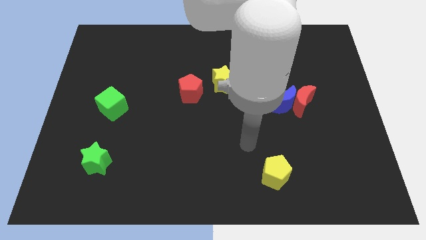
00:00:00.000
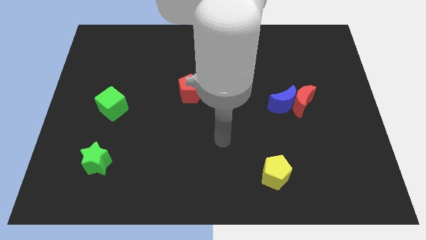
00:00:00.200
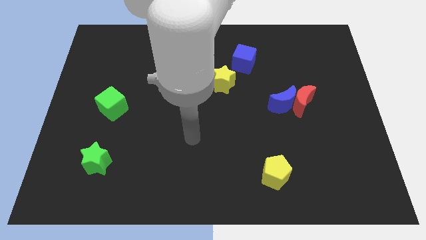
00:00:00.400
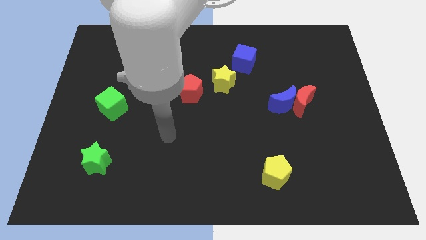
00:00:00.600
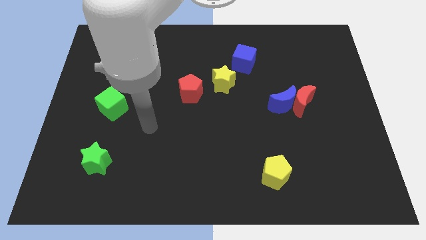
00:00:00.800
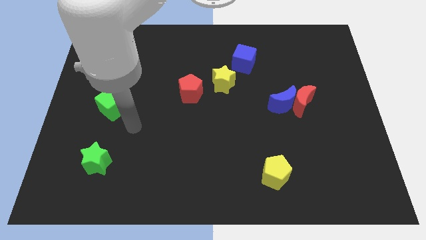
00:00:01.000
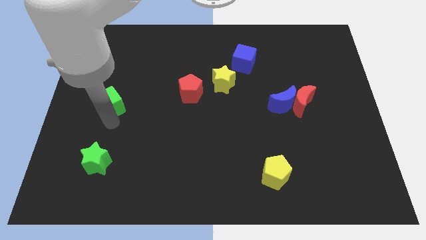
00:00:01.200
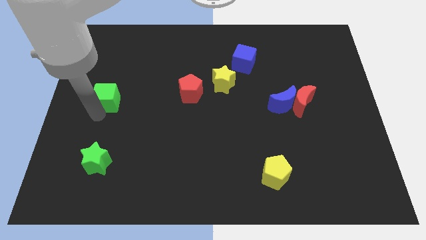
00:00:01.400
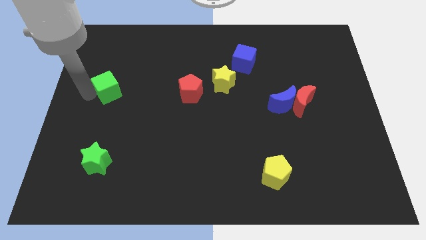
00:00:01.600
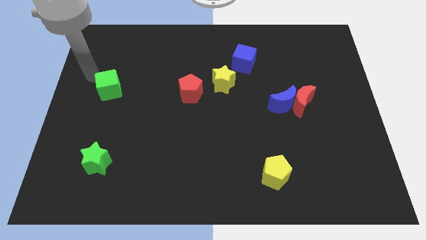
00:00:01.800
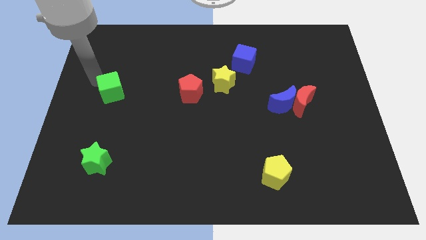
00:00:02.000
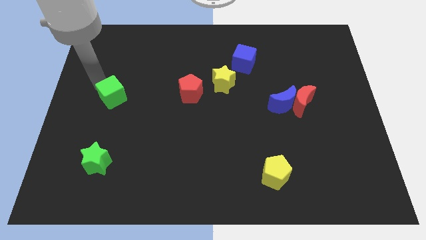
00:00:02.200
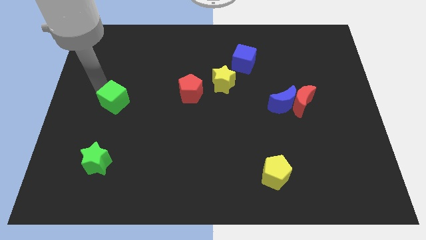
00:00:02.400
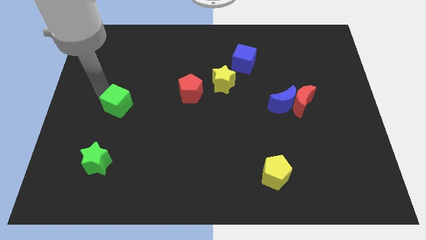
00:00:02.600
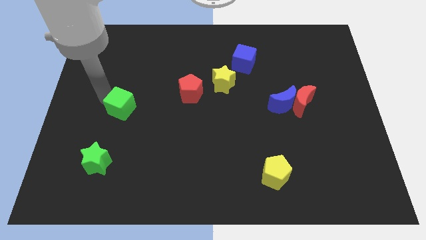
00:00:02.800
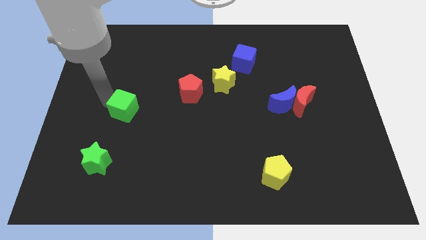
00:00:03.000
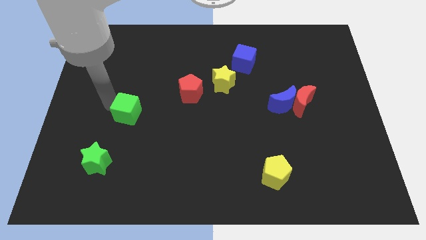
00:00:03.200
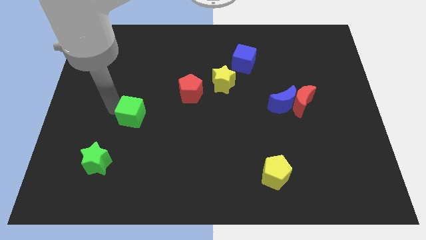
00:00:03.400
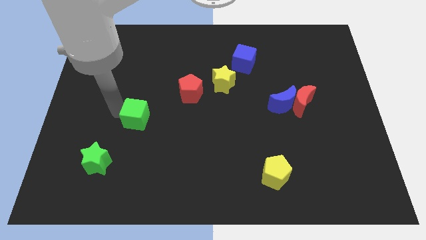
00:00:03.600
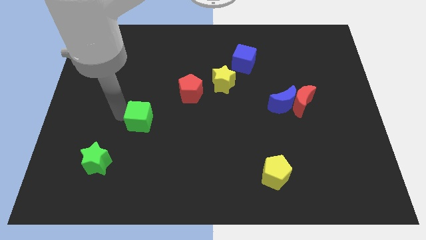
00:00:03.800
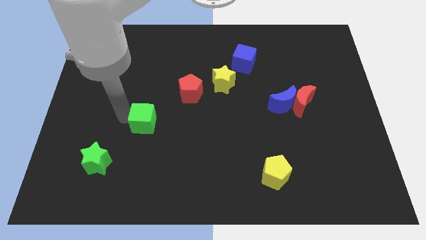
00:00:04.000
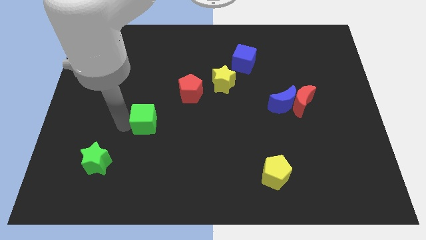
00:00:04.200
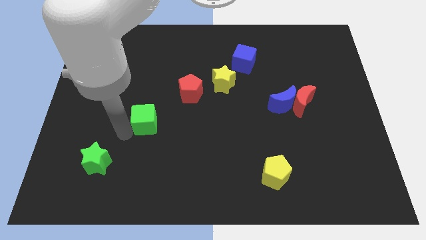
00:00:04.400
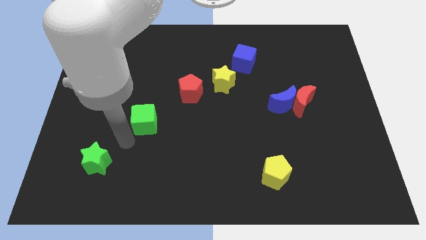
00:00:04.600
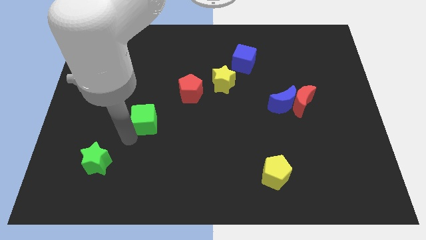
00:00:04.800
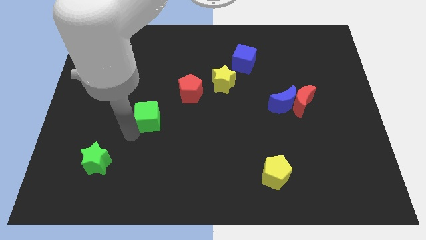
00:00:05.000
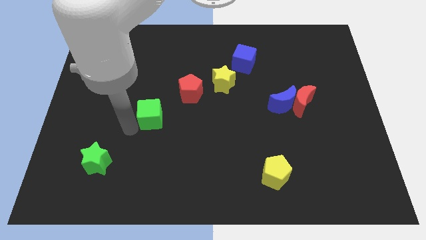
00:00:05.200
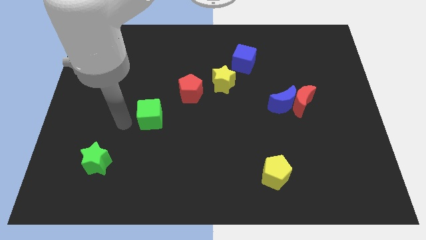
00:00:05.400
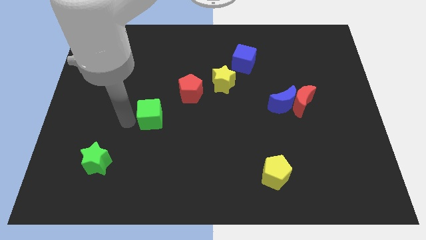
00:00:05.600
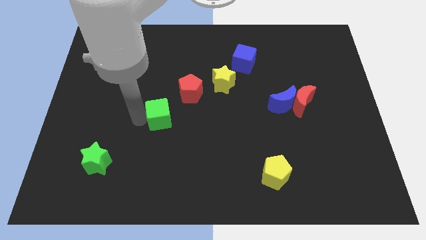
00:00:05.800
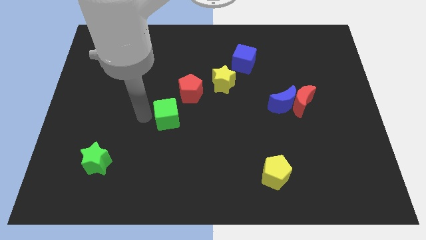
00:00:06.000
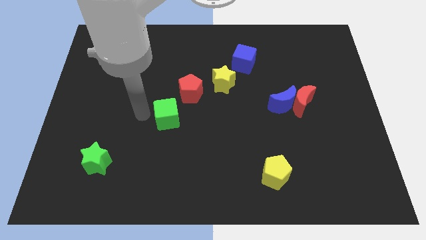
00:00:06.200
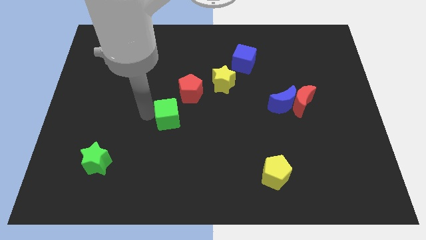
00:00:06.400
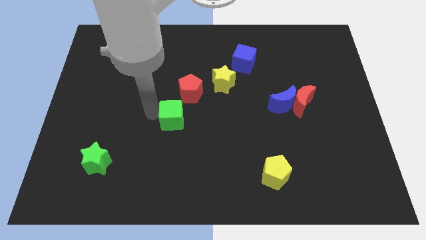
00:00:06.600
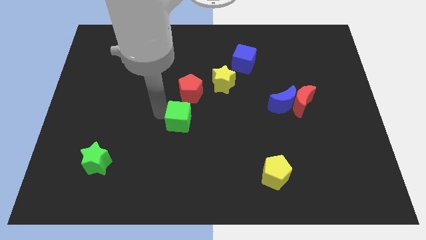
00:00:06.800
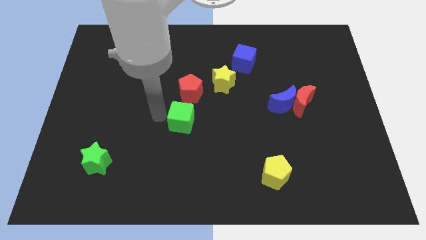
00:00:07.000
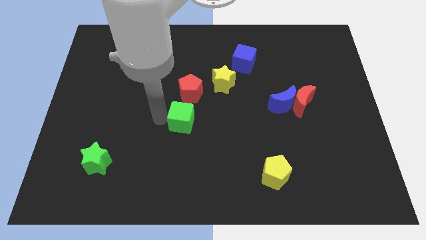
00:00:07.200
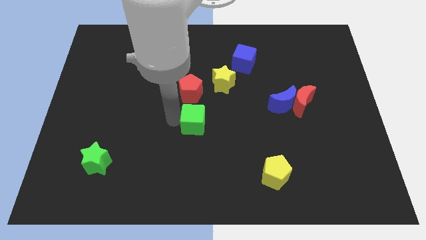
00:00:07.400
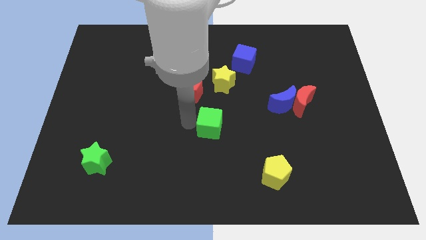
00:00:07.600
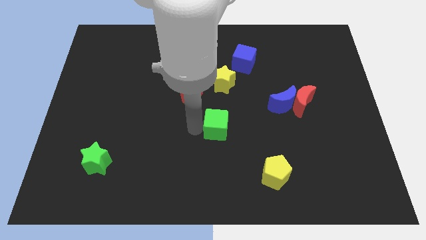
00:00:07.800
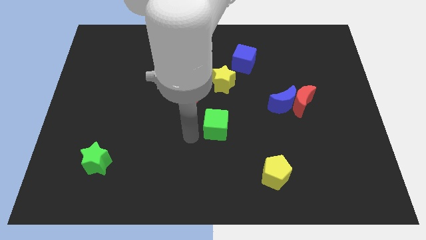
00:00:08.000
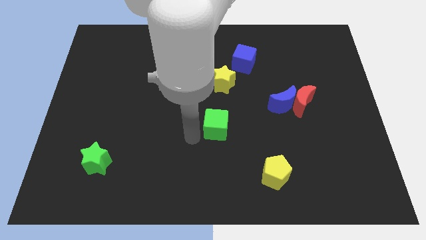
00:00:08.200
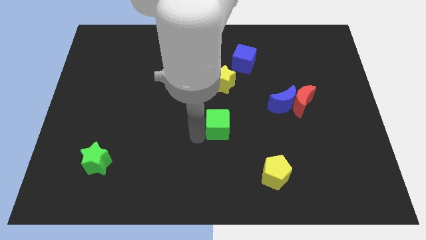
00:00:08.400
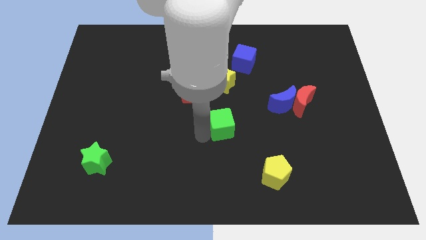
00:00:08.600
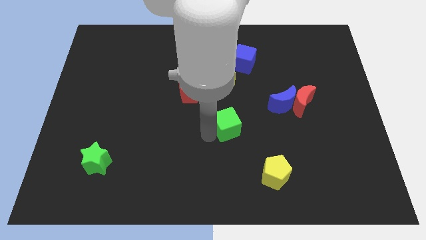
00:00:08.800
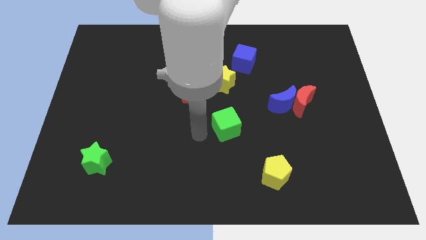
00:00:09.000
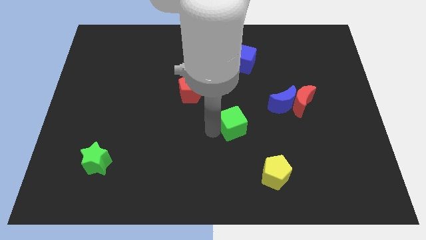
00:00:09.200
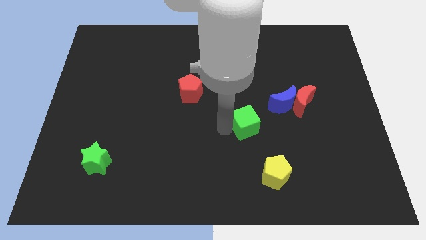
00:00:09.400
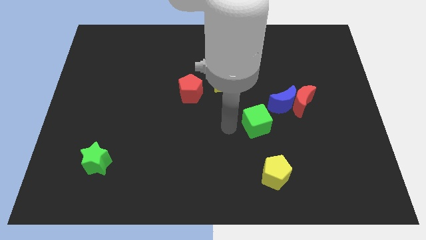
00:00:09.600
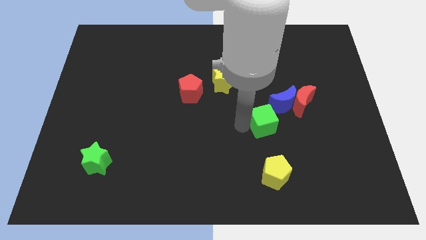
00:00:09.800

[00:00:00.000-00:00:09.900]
put the green cube to the bottom left of the red moon

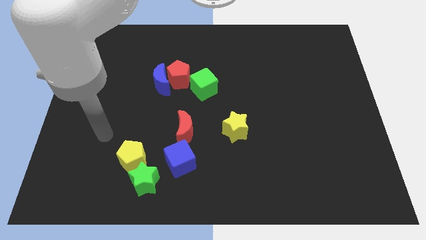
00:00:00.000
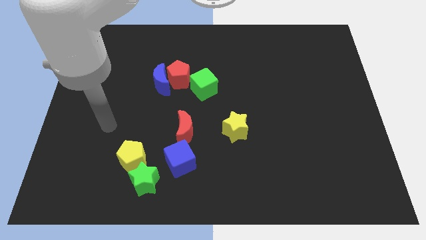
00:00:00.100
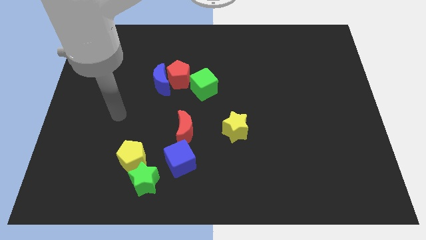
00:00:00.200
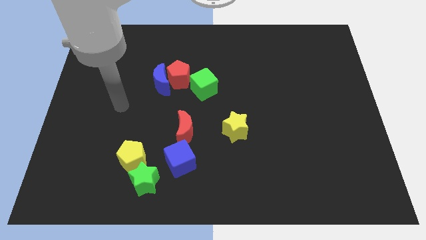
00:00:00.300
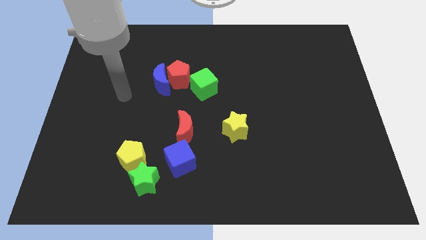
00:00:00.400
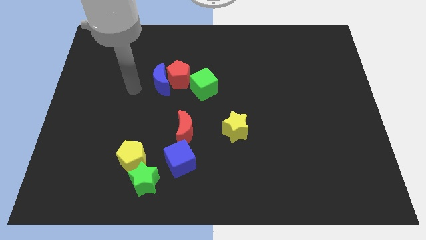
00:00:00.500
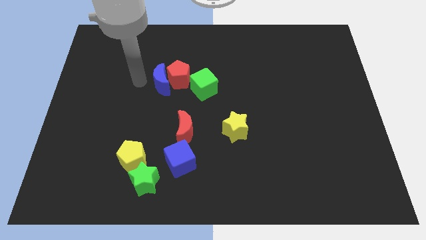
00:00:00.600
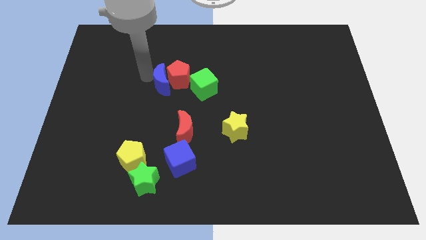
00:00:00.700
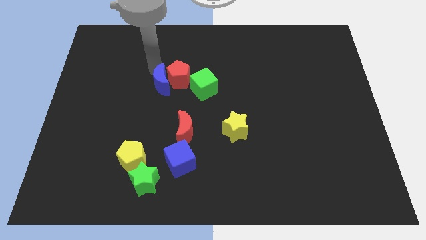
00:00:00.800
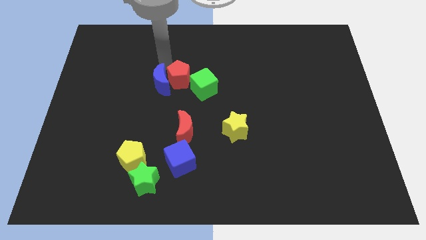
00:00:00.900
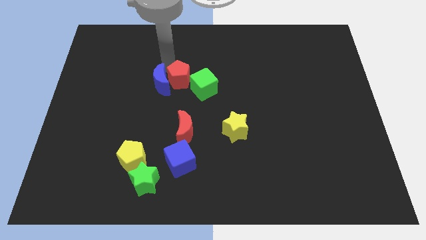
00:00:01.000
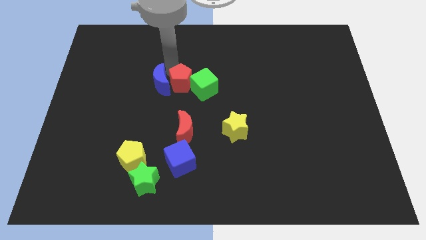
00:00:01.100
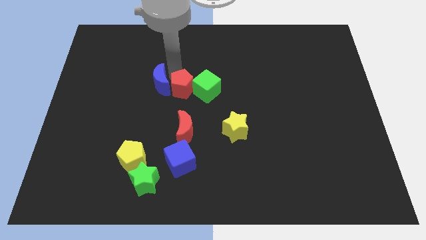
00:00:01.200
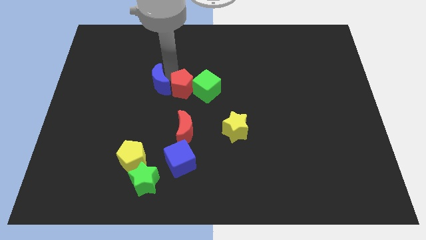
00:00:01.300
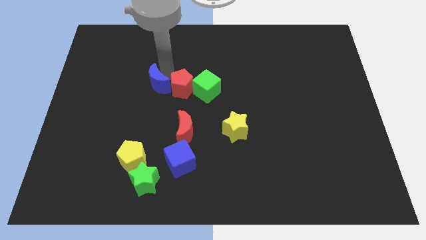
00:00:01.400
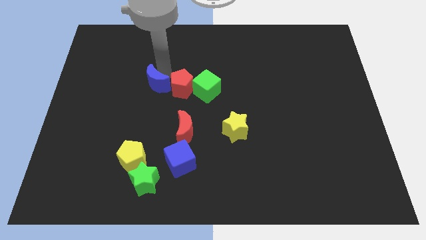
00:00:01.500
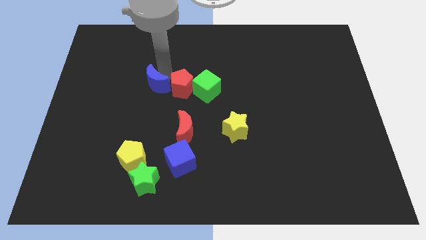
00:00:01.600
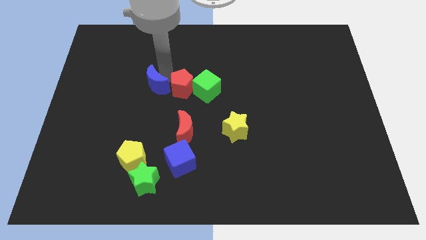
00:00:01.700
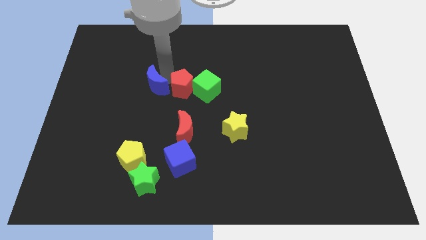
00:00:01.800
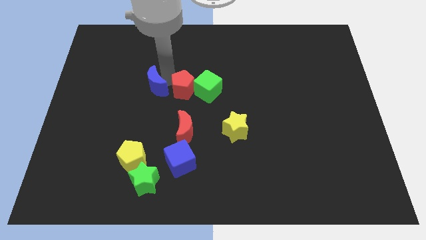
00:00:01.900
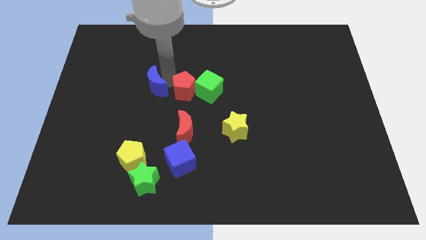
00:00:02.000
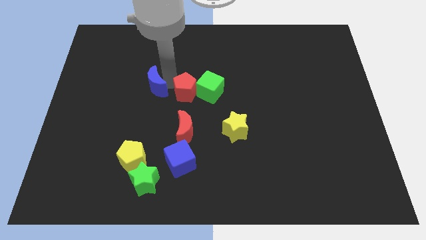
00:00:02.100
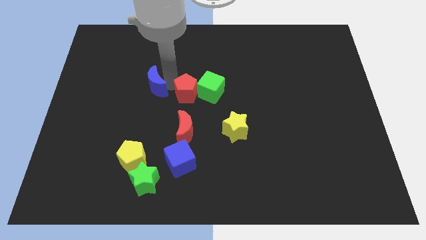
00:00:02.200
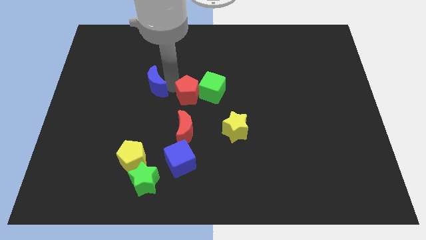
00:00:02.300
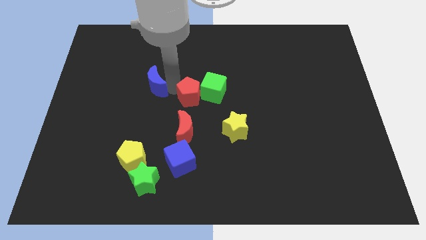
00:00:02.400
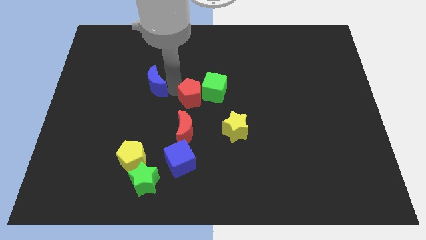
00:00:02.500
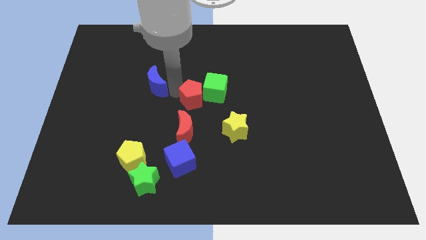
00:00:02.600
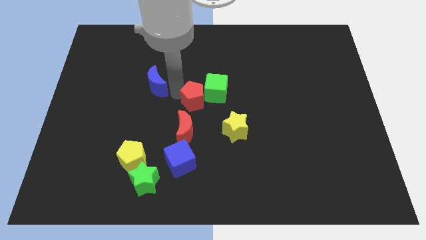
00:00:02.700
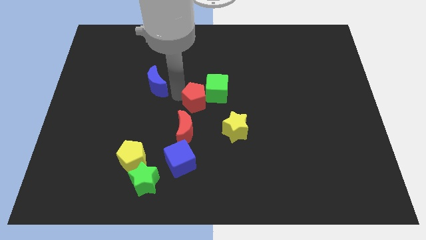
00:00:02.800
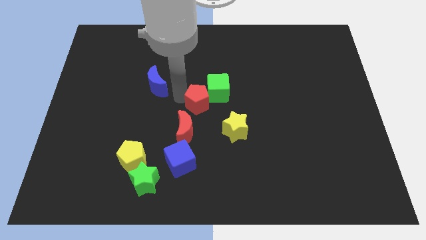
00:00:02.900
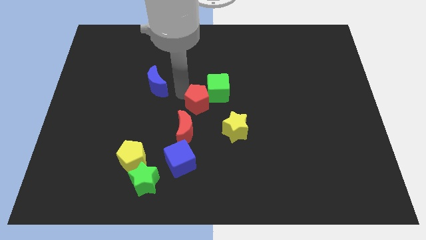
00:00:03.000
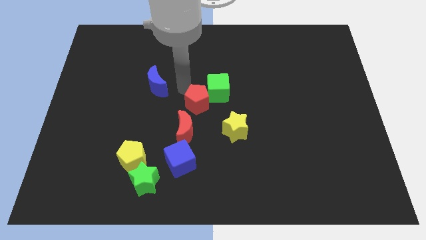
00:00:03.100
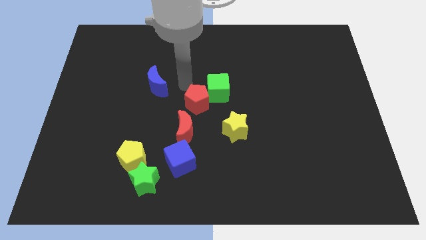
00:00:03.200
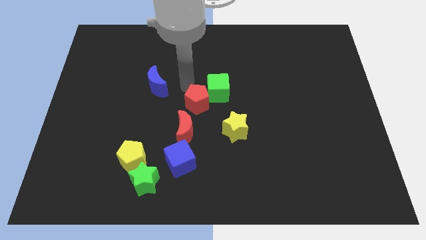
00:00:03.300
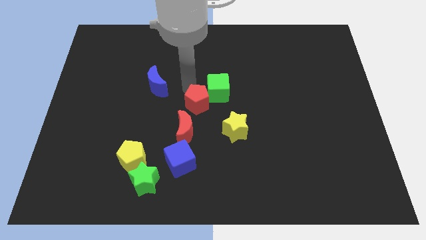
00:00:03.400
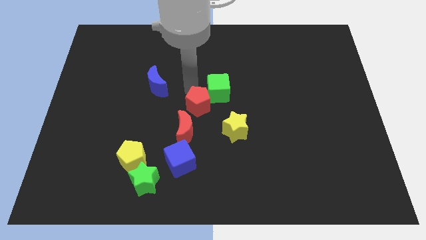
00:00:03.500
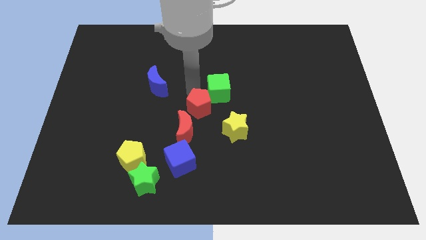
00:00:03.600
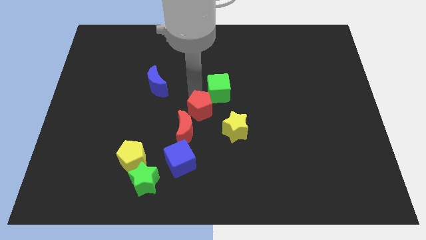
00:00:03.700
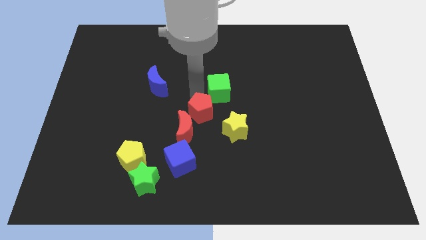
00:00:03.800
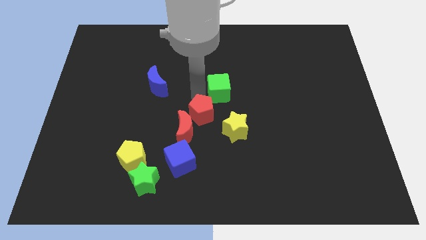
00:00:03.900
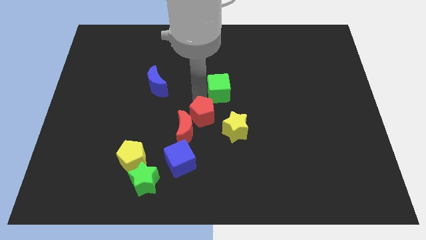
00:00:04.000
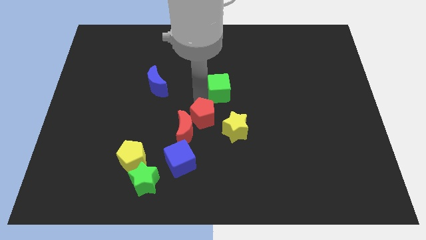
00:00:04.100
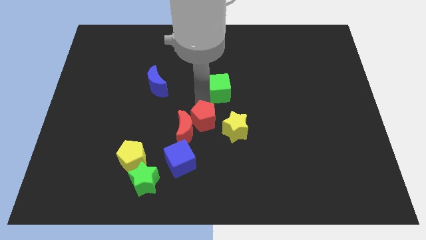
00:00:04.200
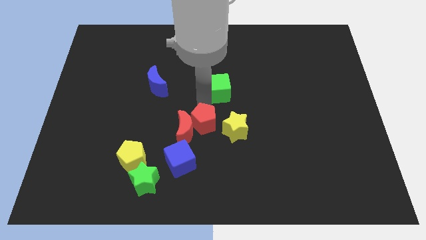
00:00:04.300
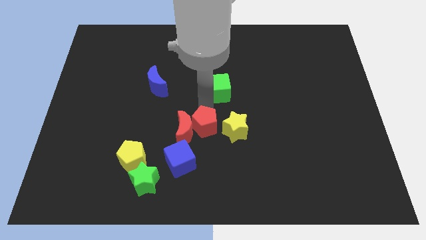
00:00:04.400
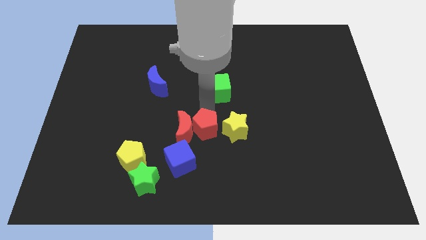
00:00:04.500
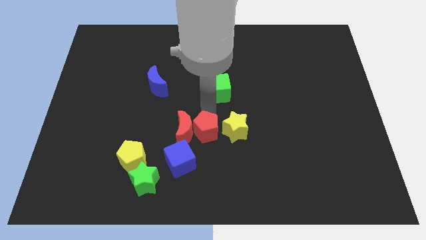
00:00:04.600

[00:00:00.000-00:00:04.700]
slide the red pentagon to the bottom left of the yellow star
